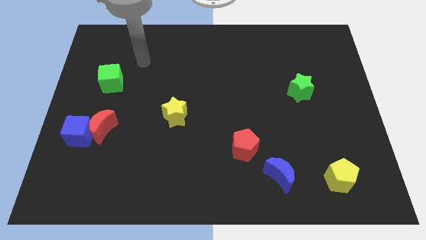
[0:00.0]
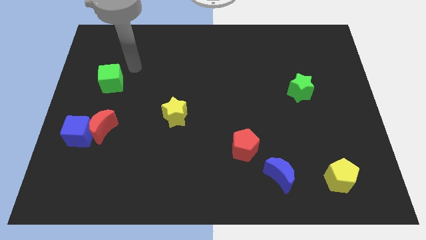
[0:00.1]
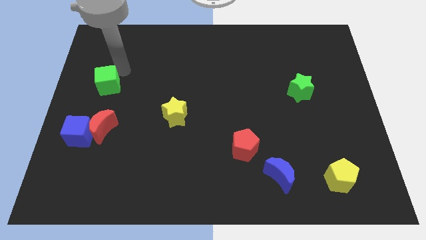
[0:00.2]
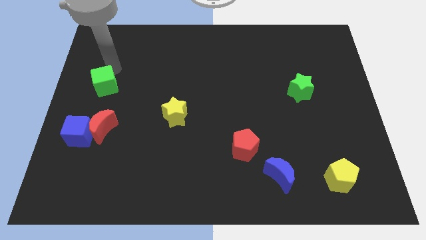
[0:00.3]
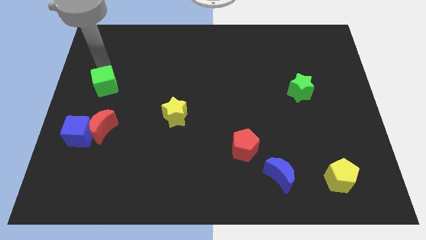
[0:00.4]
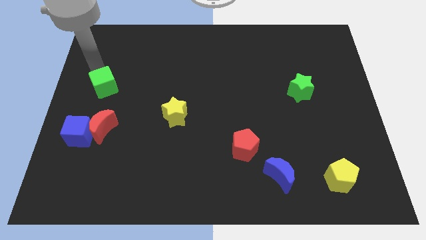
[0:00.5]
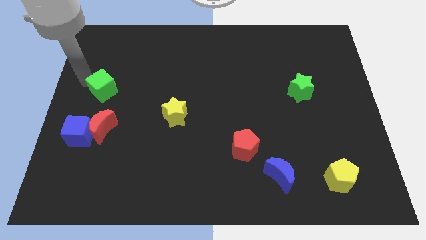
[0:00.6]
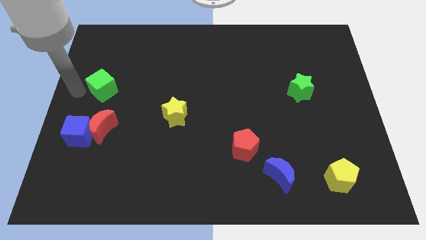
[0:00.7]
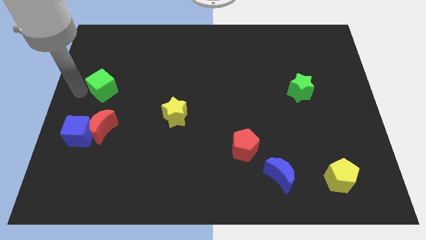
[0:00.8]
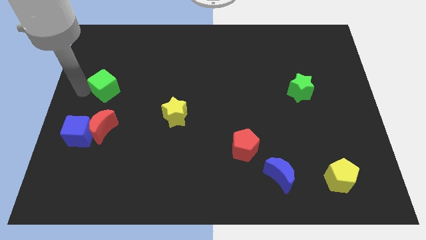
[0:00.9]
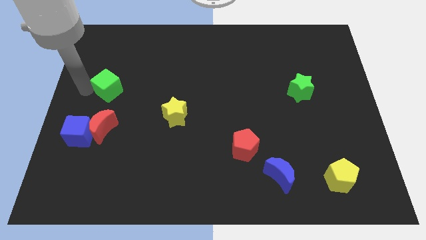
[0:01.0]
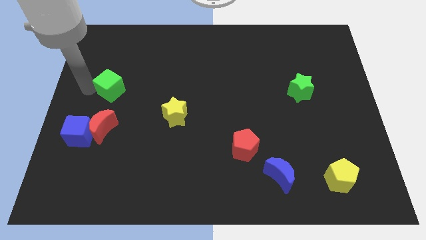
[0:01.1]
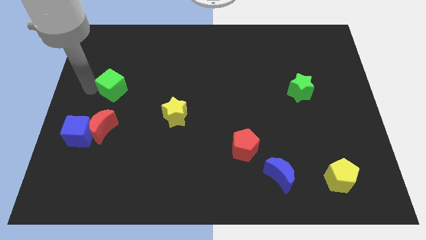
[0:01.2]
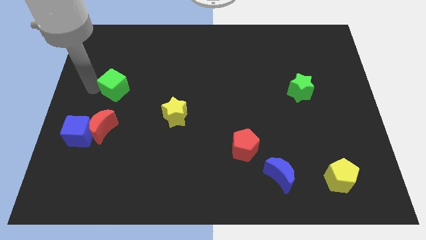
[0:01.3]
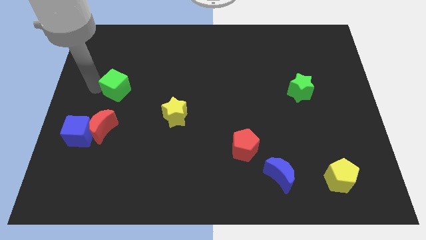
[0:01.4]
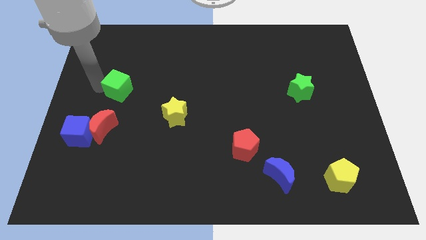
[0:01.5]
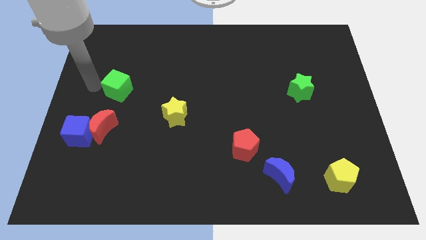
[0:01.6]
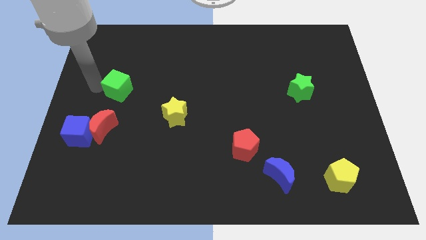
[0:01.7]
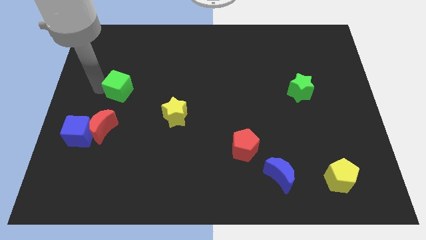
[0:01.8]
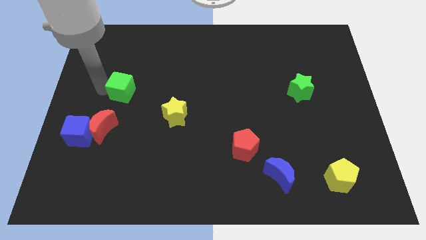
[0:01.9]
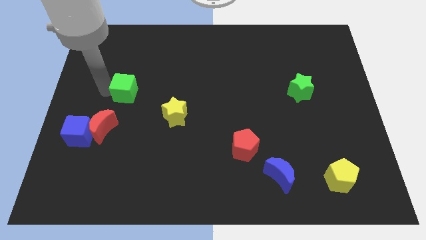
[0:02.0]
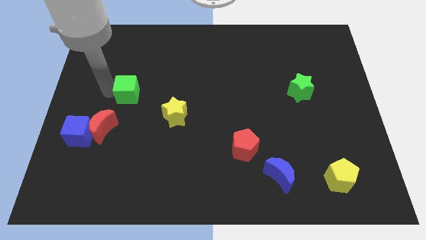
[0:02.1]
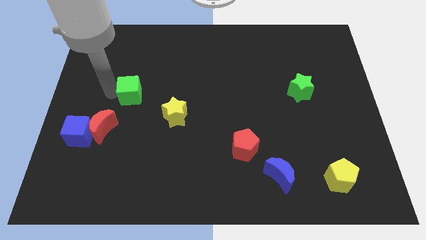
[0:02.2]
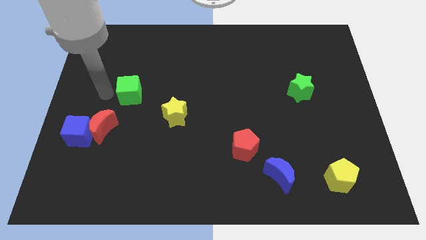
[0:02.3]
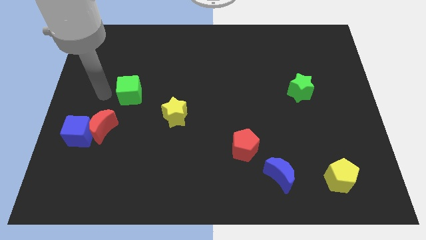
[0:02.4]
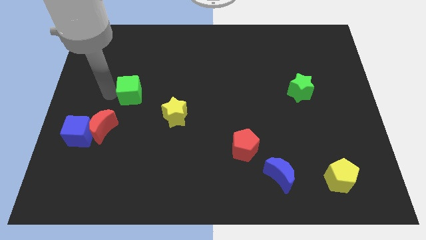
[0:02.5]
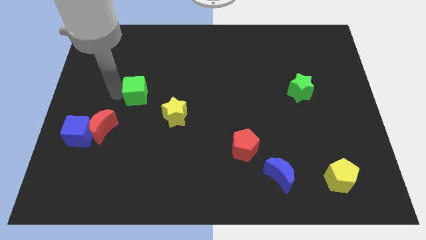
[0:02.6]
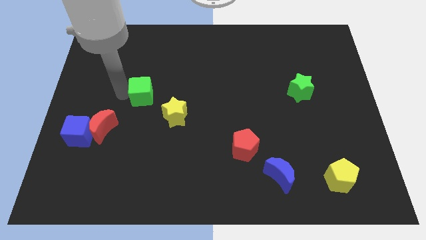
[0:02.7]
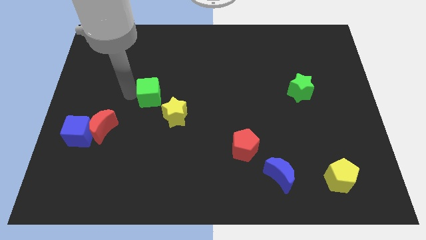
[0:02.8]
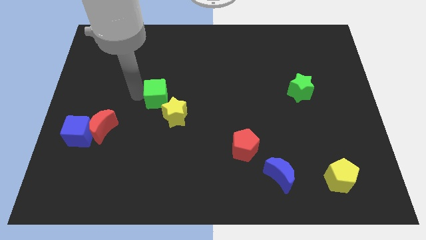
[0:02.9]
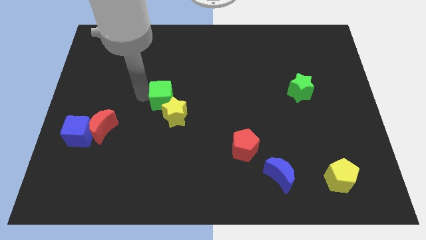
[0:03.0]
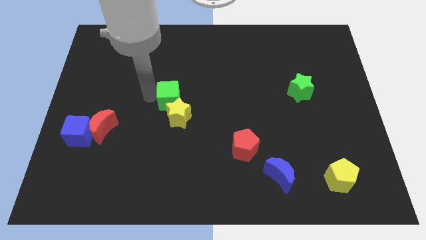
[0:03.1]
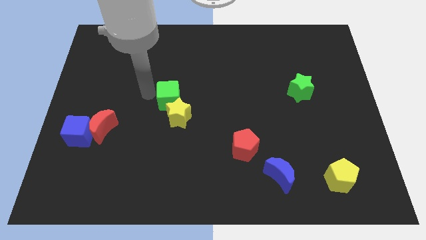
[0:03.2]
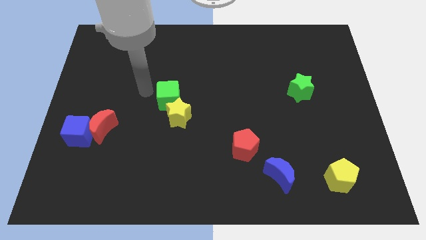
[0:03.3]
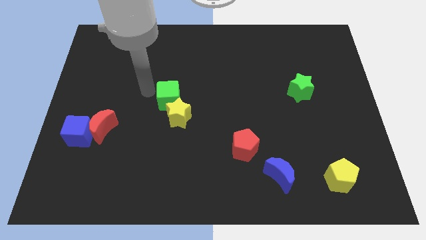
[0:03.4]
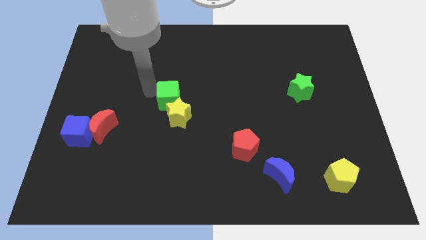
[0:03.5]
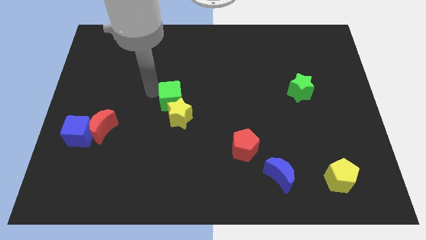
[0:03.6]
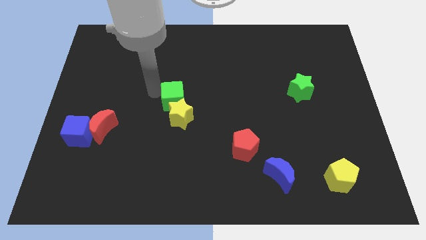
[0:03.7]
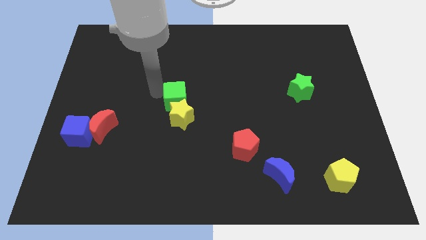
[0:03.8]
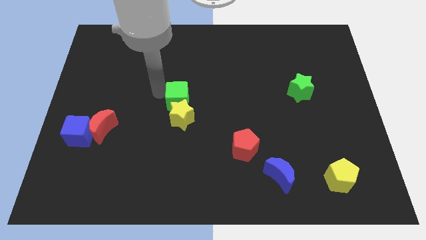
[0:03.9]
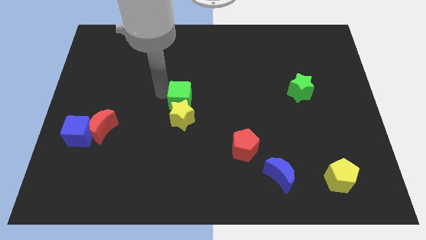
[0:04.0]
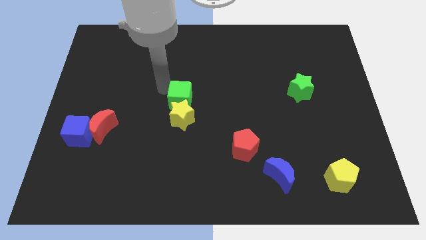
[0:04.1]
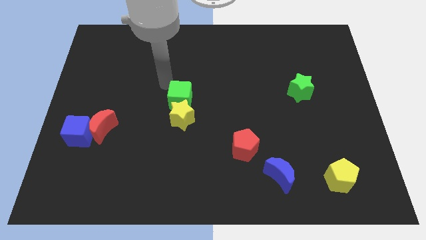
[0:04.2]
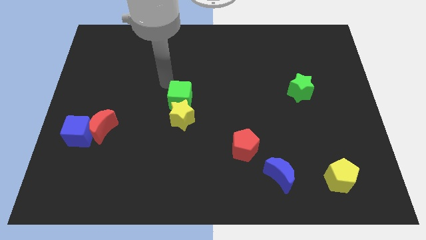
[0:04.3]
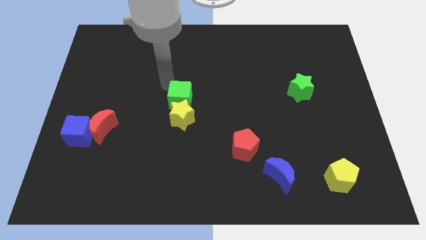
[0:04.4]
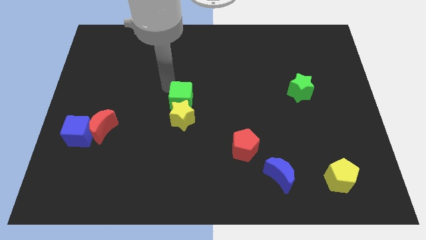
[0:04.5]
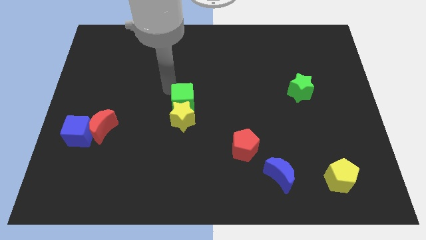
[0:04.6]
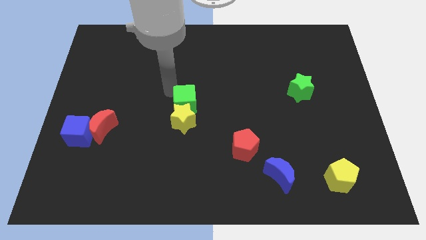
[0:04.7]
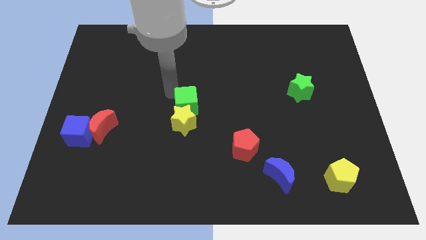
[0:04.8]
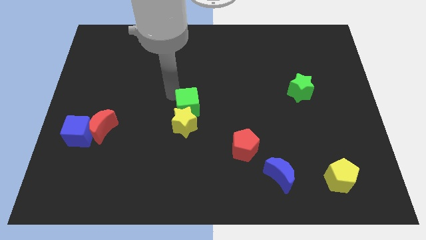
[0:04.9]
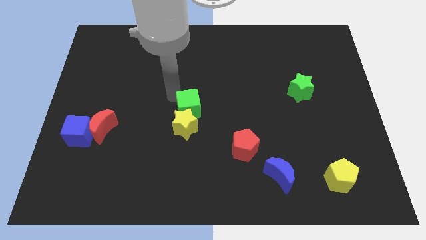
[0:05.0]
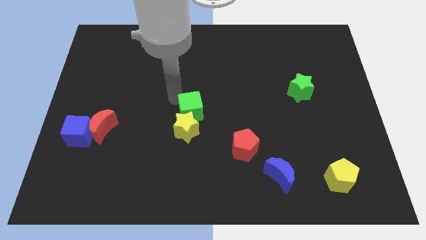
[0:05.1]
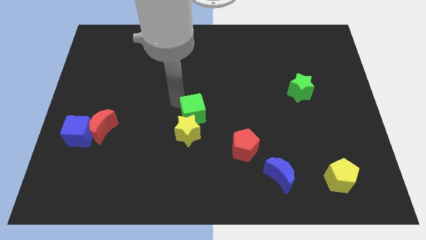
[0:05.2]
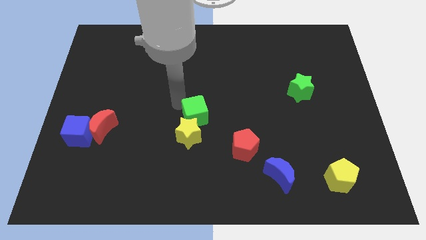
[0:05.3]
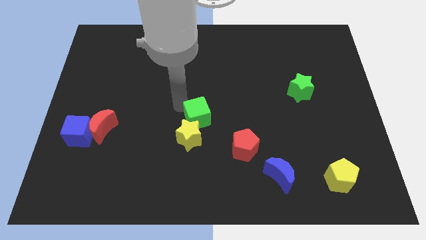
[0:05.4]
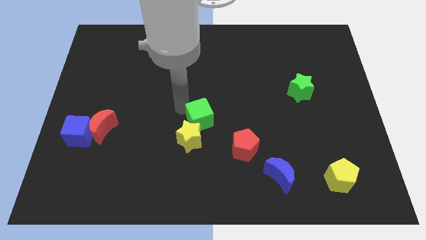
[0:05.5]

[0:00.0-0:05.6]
push the green cube to the top left side of the red pentagon

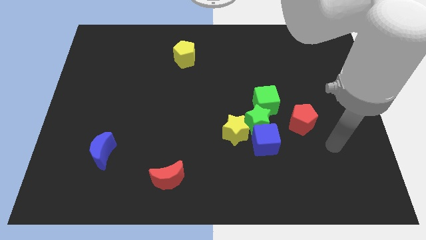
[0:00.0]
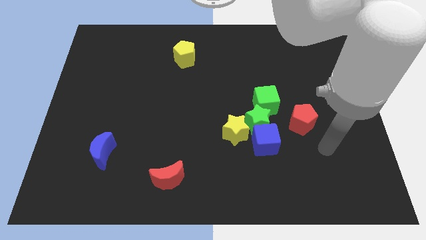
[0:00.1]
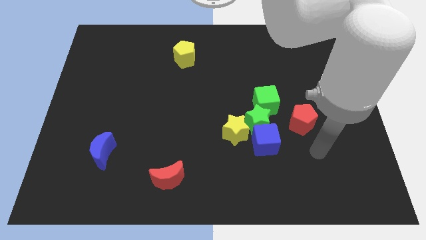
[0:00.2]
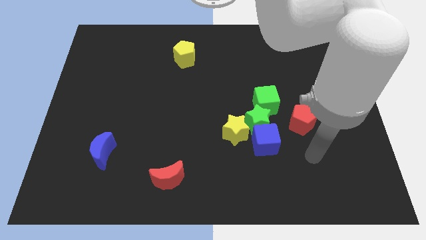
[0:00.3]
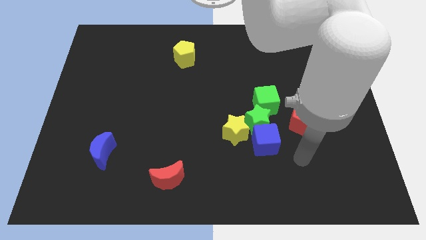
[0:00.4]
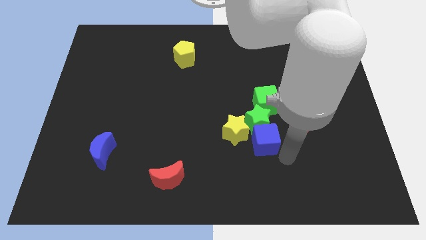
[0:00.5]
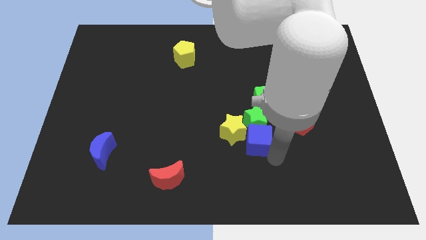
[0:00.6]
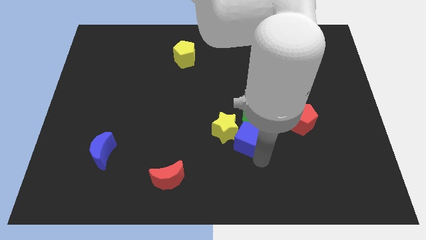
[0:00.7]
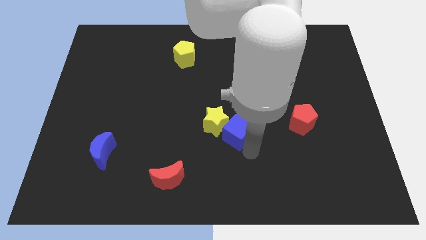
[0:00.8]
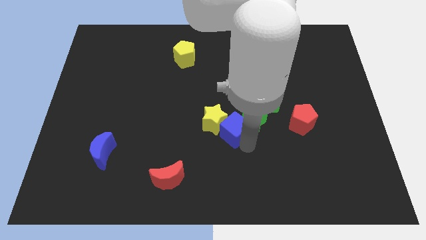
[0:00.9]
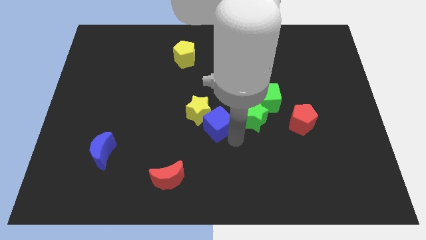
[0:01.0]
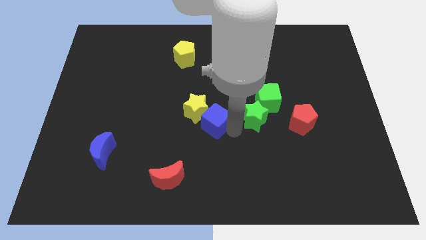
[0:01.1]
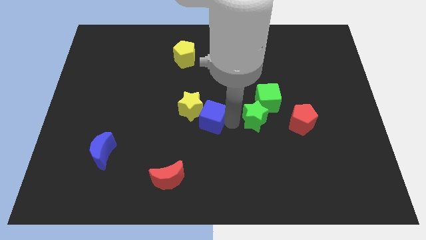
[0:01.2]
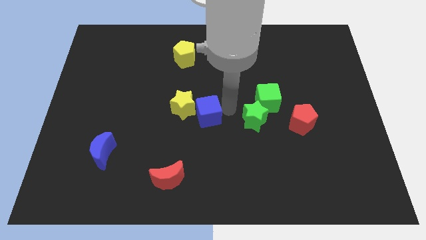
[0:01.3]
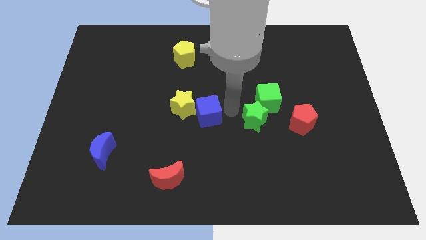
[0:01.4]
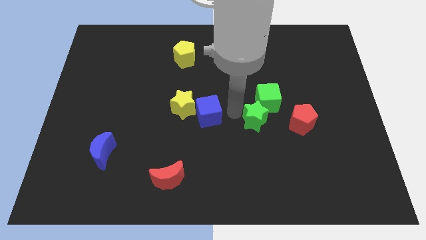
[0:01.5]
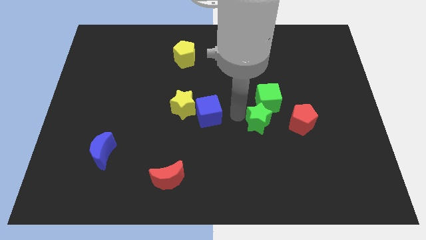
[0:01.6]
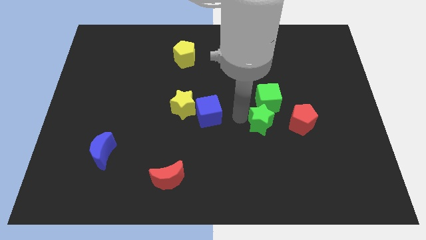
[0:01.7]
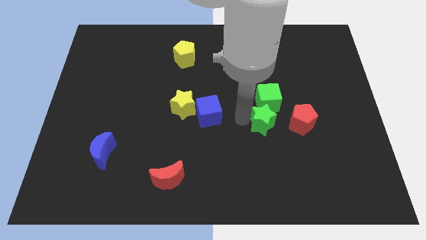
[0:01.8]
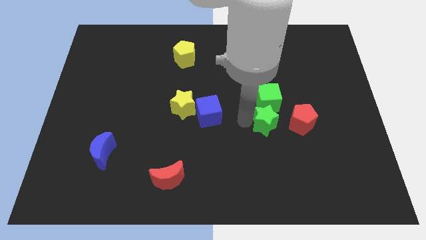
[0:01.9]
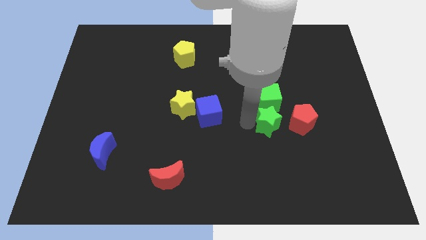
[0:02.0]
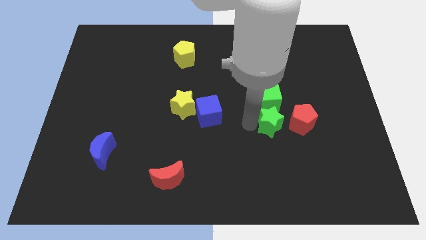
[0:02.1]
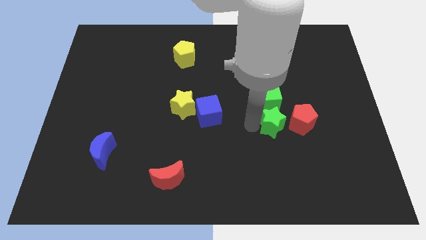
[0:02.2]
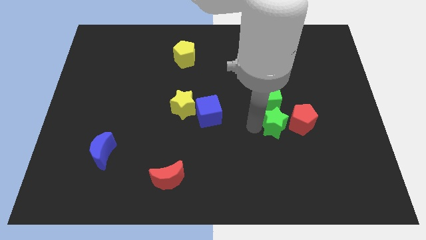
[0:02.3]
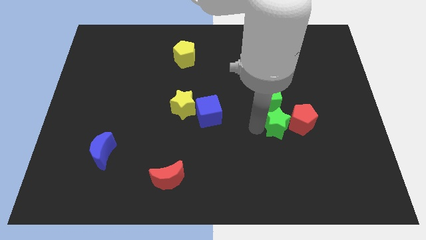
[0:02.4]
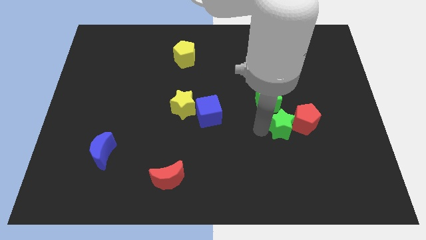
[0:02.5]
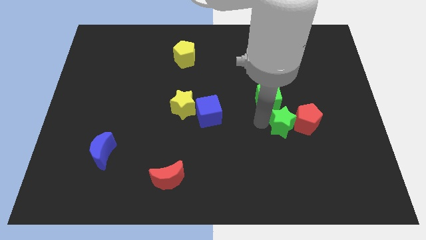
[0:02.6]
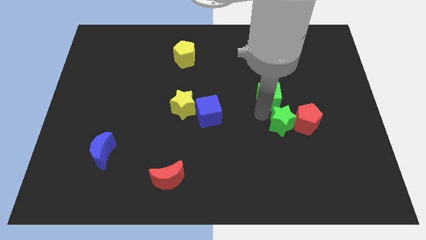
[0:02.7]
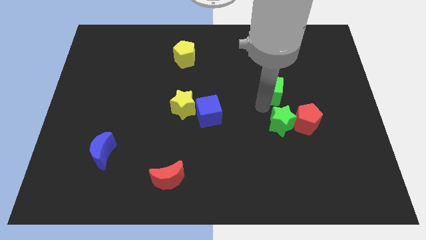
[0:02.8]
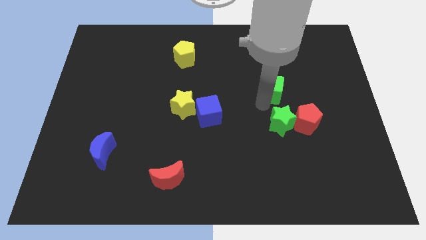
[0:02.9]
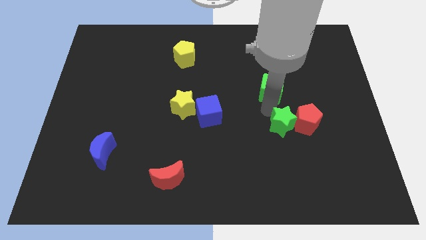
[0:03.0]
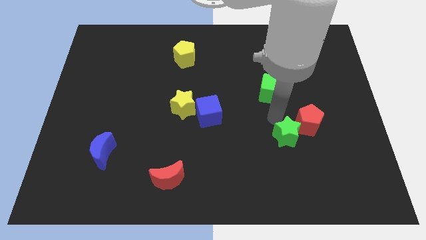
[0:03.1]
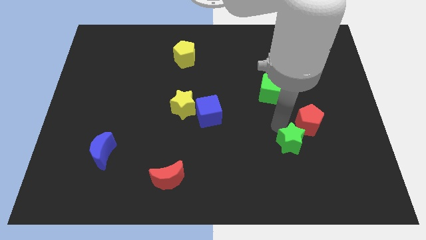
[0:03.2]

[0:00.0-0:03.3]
push the green star below the red pentagon
